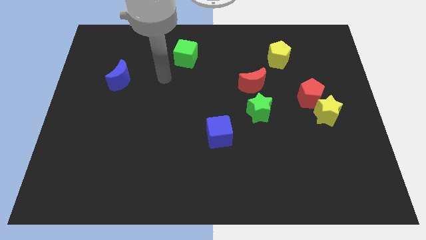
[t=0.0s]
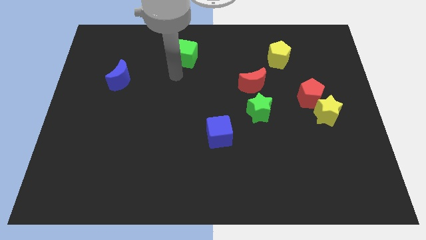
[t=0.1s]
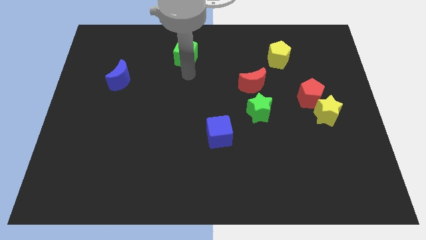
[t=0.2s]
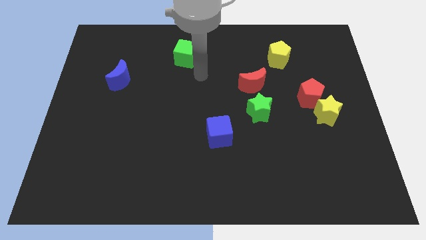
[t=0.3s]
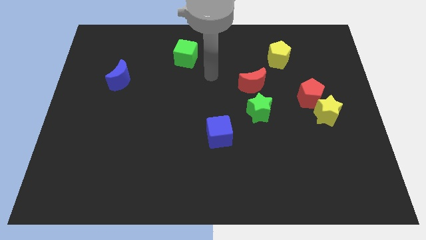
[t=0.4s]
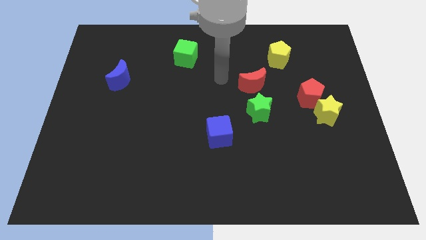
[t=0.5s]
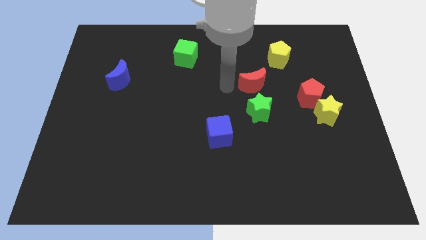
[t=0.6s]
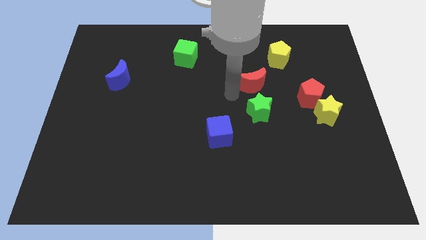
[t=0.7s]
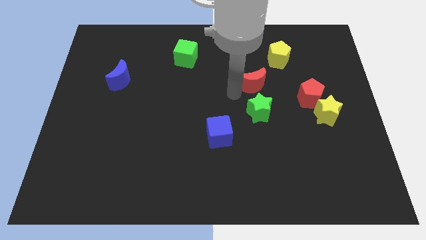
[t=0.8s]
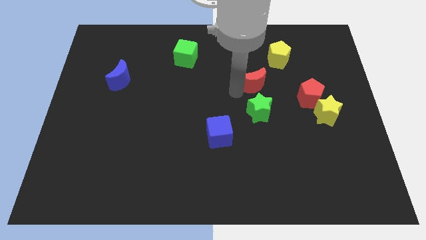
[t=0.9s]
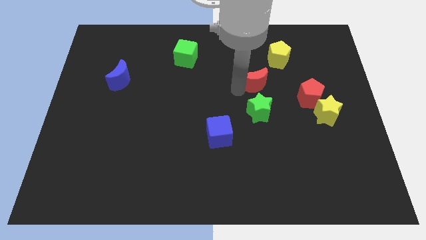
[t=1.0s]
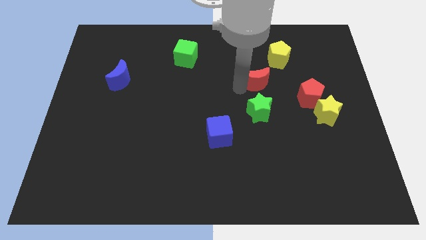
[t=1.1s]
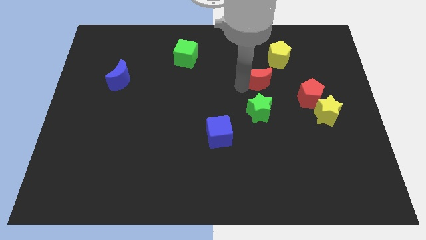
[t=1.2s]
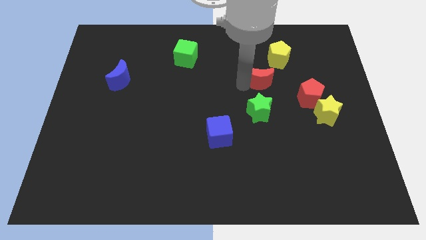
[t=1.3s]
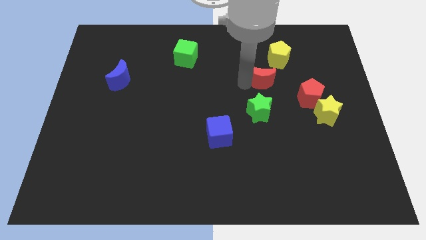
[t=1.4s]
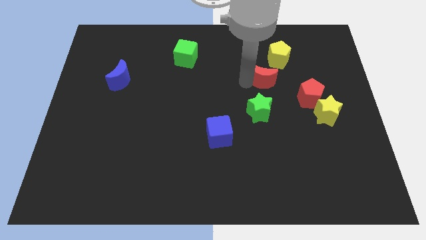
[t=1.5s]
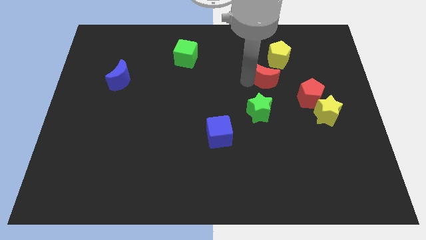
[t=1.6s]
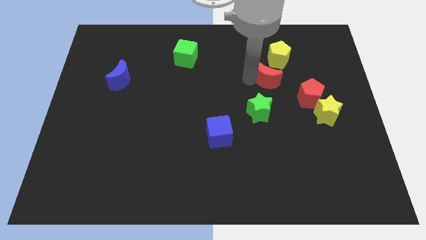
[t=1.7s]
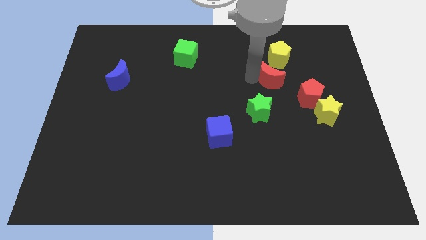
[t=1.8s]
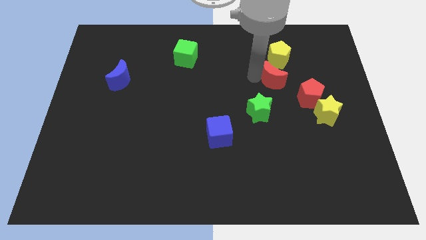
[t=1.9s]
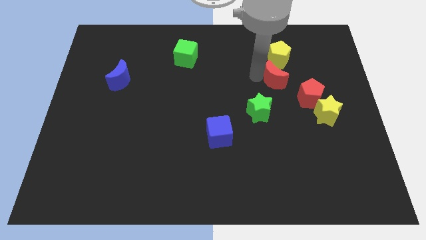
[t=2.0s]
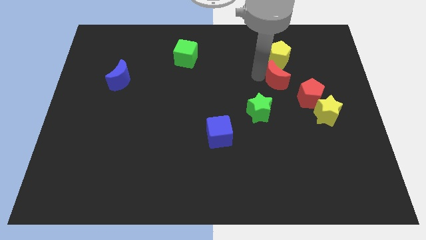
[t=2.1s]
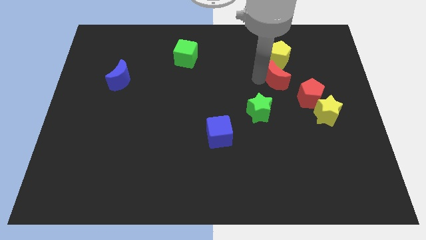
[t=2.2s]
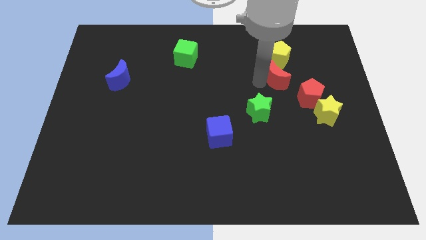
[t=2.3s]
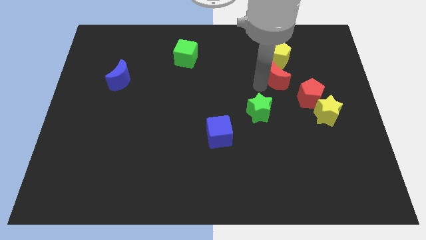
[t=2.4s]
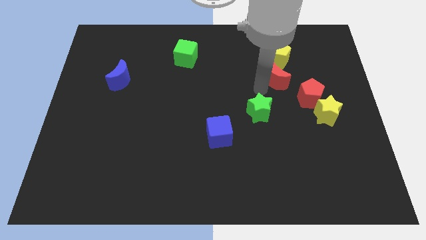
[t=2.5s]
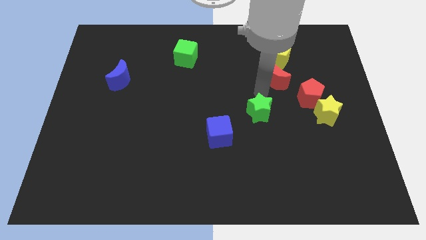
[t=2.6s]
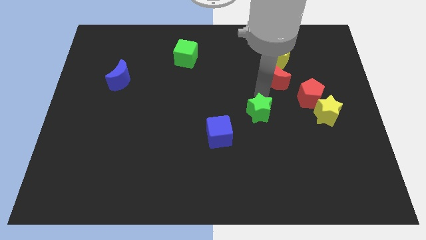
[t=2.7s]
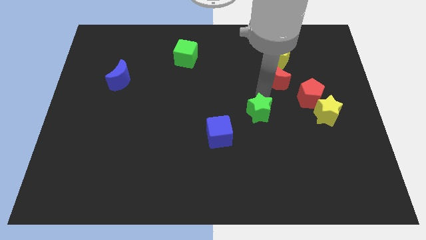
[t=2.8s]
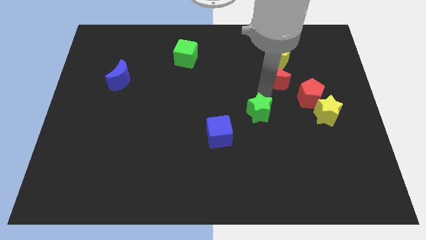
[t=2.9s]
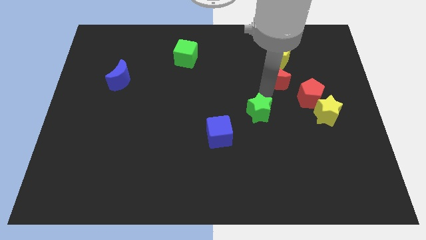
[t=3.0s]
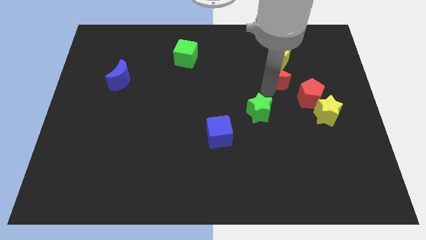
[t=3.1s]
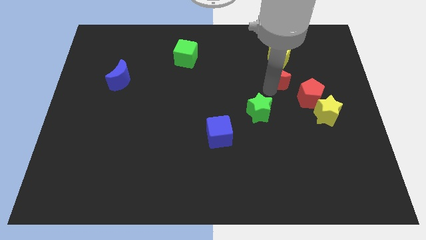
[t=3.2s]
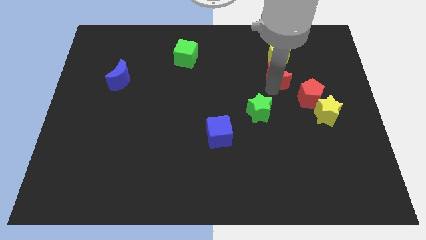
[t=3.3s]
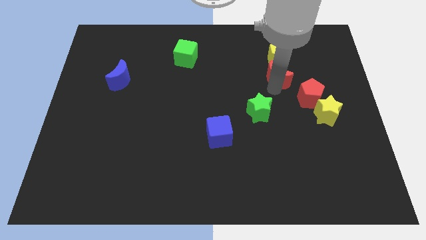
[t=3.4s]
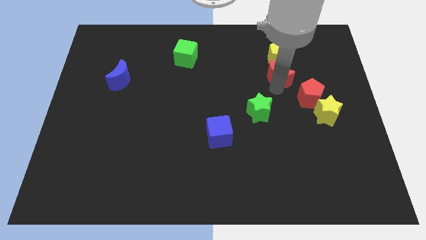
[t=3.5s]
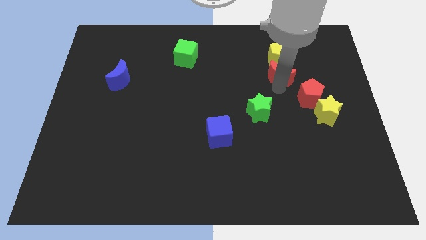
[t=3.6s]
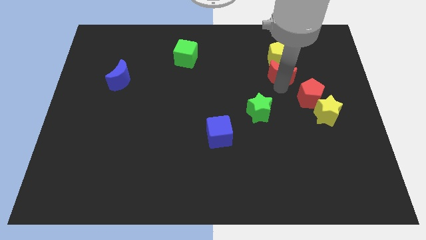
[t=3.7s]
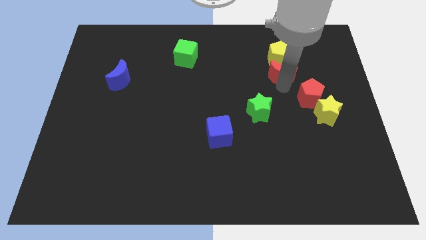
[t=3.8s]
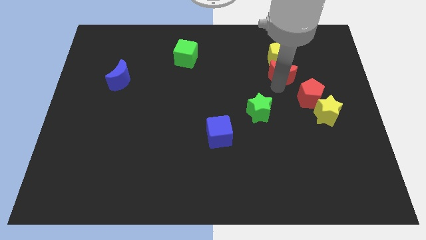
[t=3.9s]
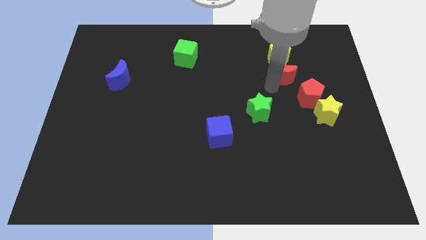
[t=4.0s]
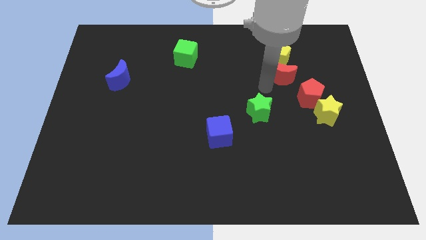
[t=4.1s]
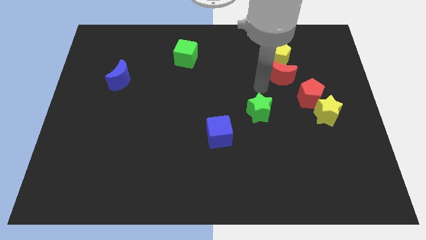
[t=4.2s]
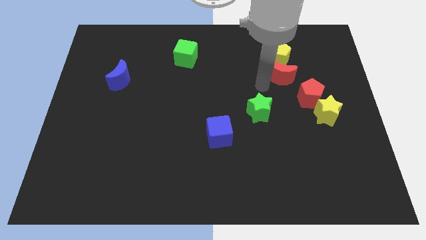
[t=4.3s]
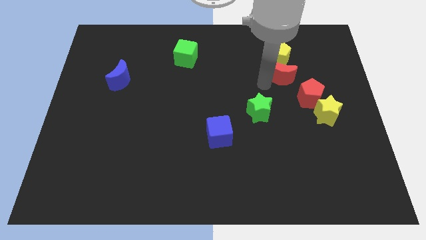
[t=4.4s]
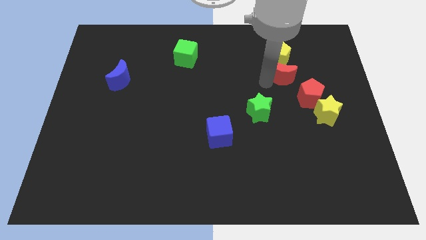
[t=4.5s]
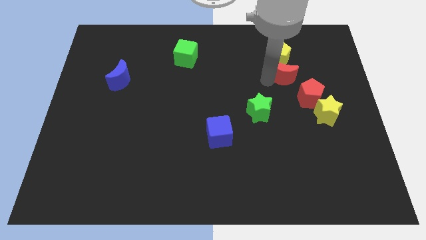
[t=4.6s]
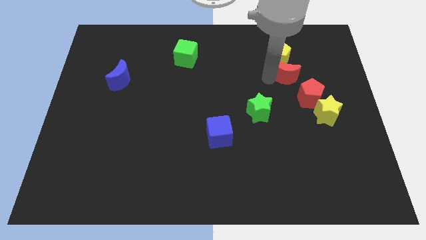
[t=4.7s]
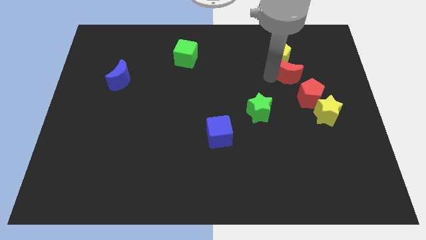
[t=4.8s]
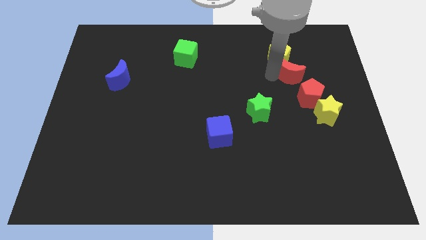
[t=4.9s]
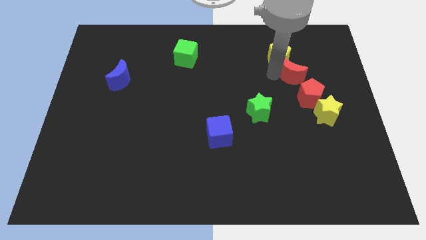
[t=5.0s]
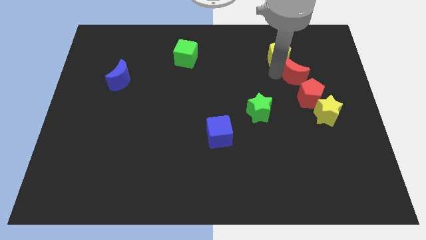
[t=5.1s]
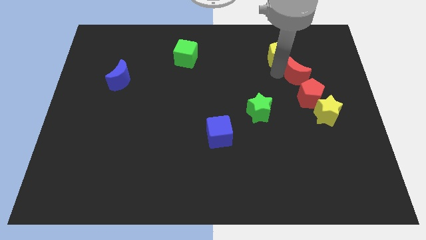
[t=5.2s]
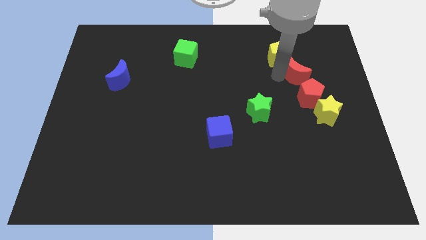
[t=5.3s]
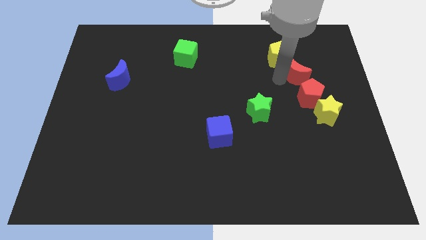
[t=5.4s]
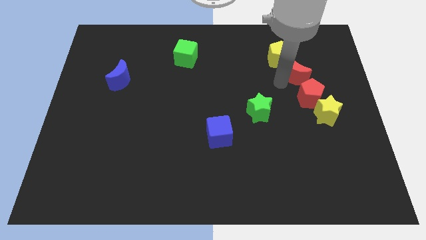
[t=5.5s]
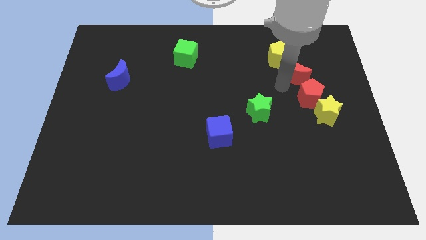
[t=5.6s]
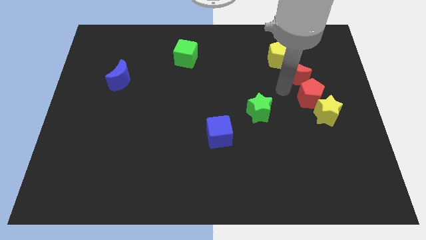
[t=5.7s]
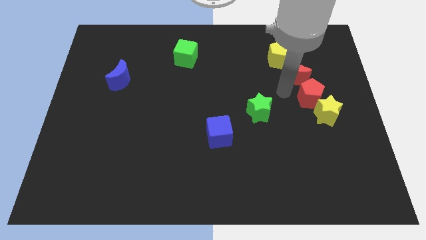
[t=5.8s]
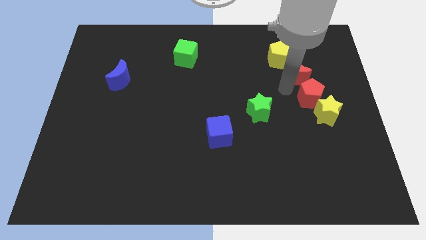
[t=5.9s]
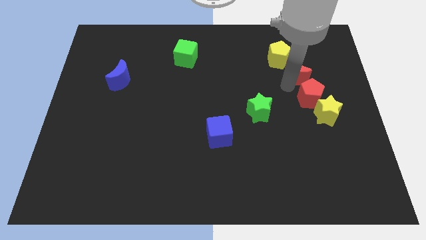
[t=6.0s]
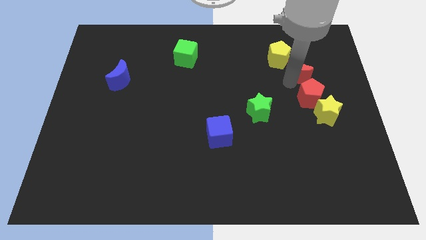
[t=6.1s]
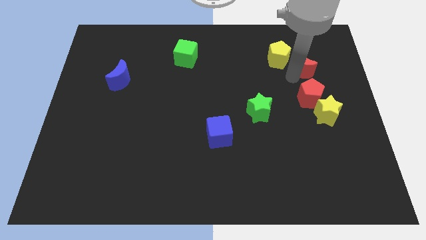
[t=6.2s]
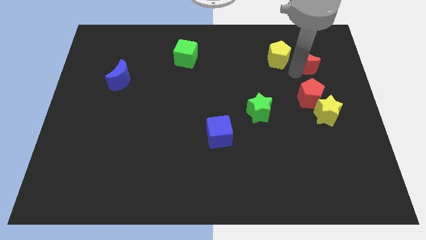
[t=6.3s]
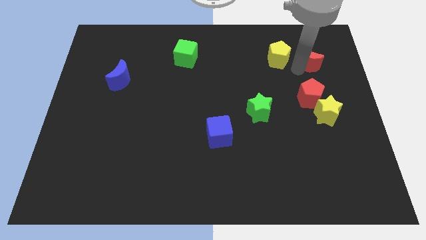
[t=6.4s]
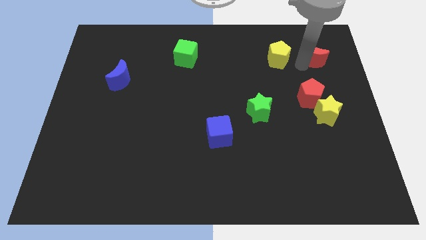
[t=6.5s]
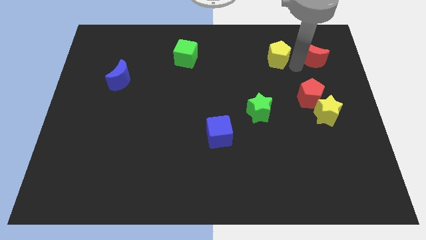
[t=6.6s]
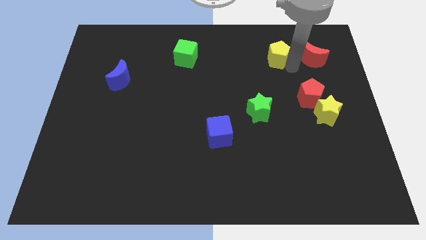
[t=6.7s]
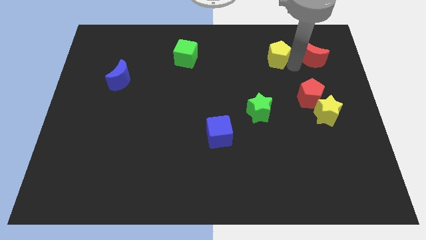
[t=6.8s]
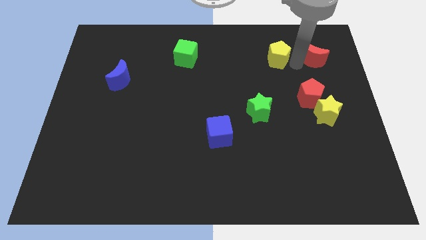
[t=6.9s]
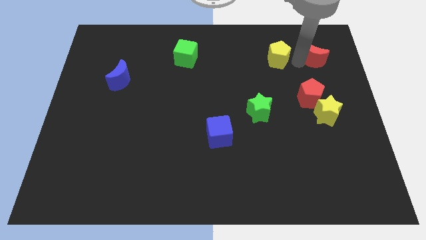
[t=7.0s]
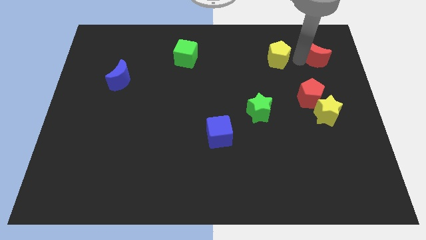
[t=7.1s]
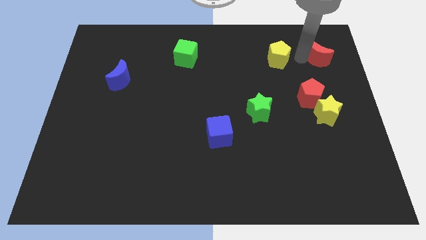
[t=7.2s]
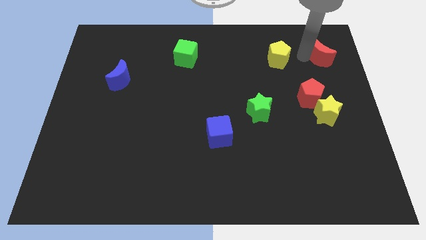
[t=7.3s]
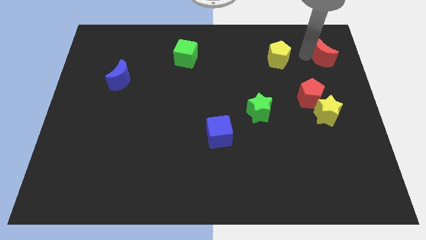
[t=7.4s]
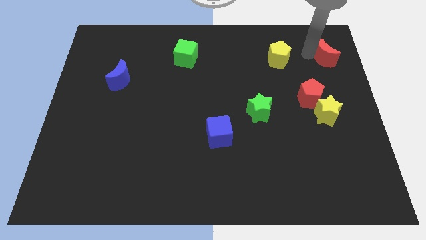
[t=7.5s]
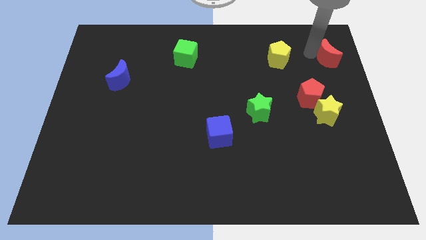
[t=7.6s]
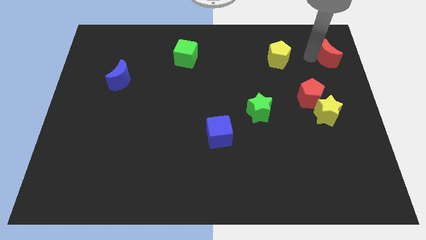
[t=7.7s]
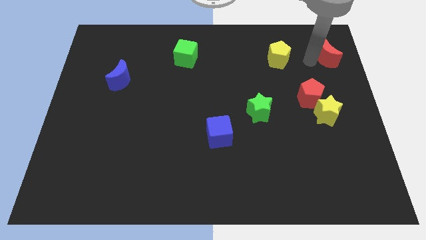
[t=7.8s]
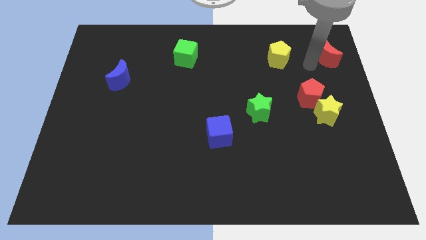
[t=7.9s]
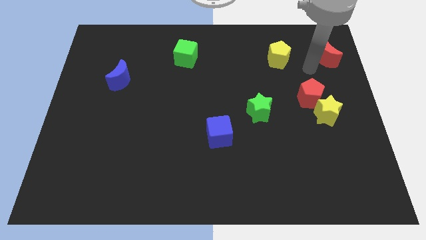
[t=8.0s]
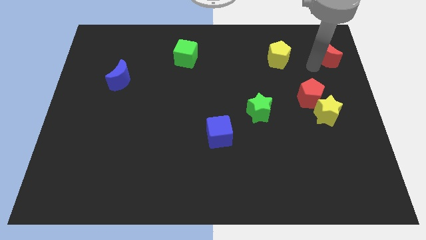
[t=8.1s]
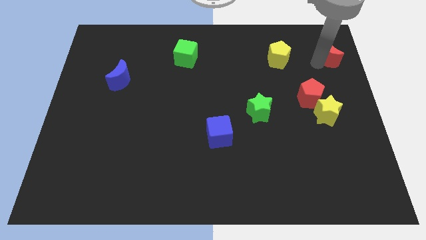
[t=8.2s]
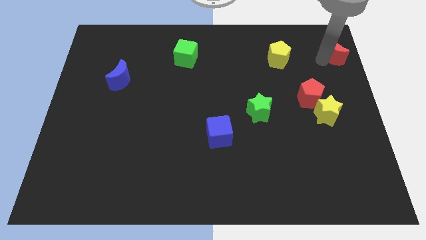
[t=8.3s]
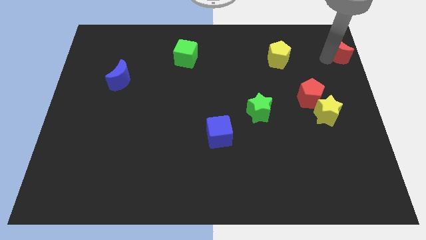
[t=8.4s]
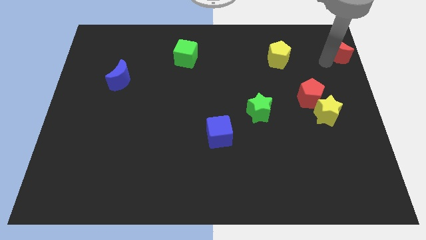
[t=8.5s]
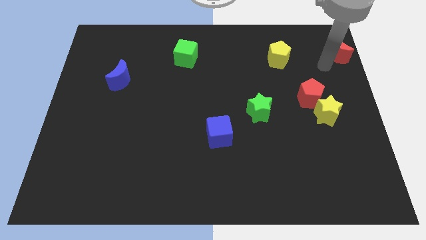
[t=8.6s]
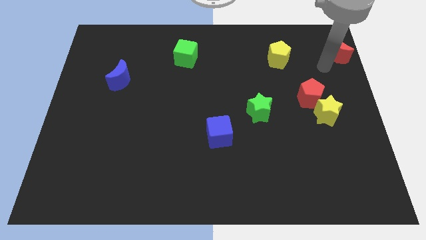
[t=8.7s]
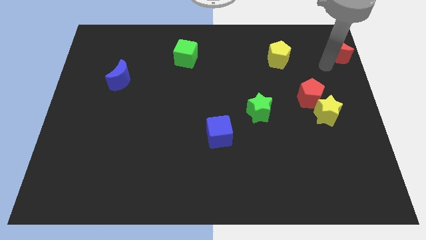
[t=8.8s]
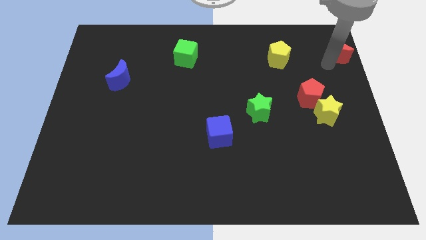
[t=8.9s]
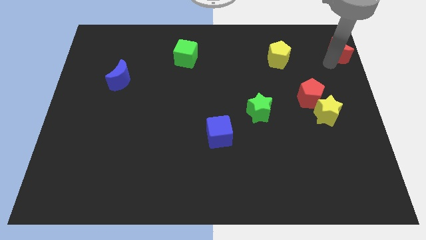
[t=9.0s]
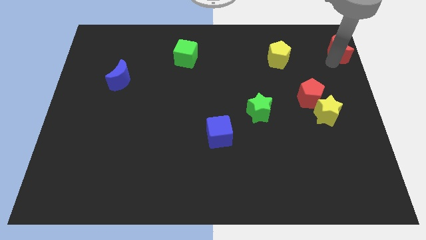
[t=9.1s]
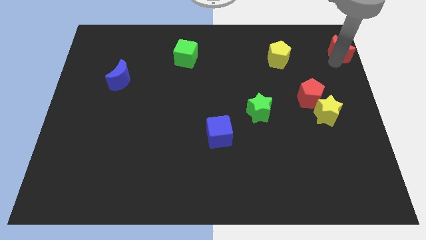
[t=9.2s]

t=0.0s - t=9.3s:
slide the red moon to the top right
